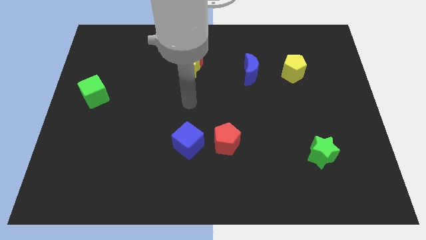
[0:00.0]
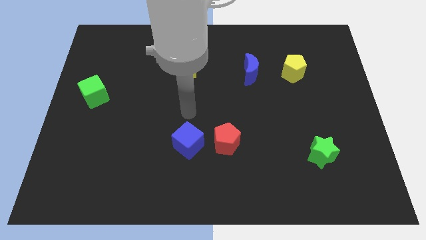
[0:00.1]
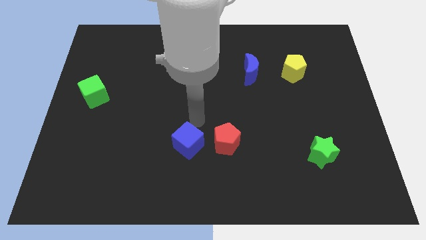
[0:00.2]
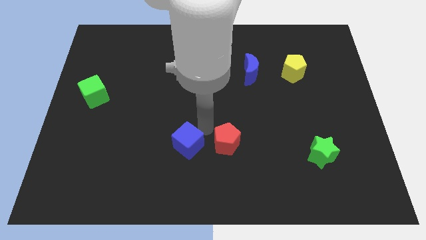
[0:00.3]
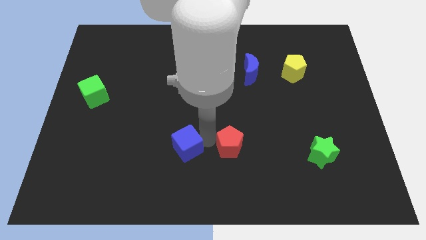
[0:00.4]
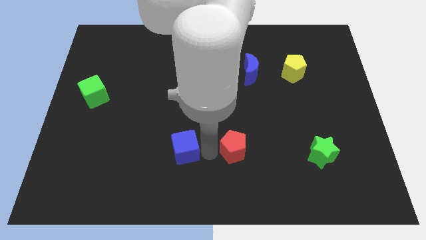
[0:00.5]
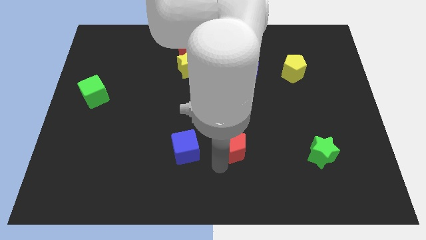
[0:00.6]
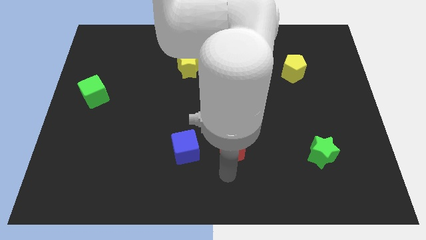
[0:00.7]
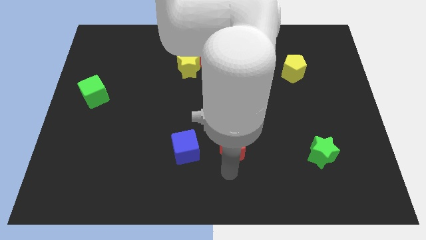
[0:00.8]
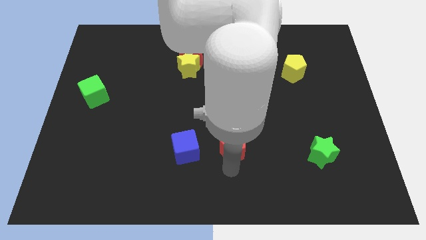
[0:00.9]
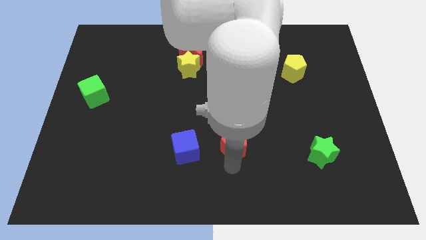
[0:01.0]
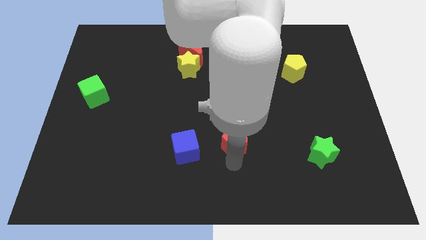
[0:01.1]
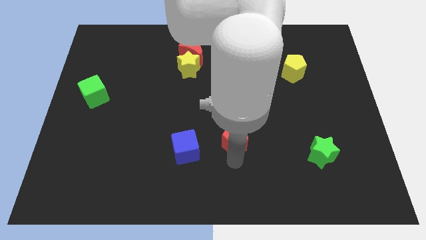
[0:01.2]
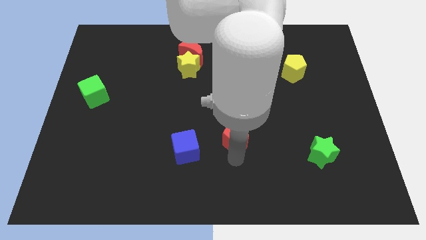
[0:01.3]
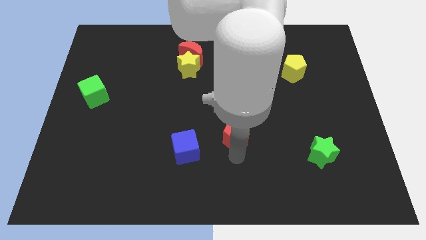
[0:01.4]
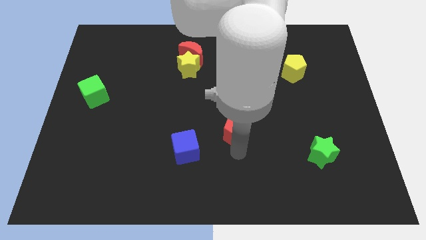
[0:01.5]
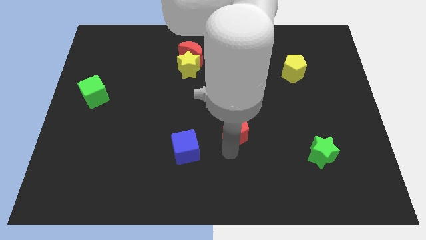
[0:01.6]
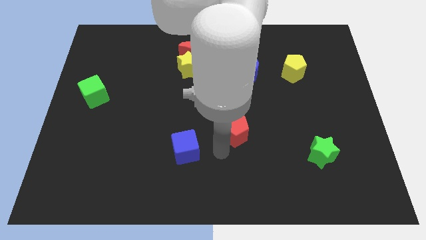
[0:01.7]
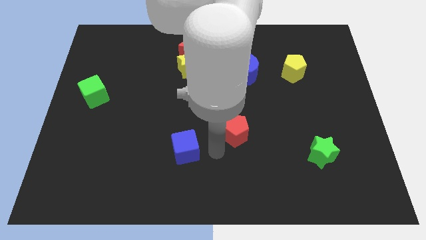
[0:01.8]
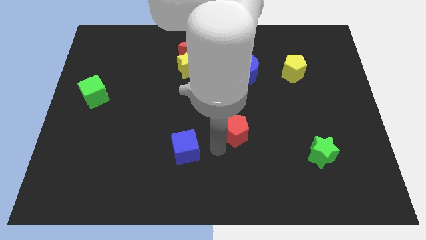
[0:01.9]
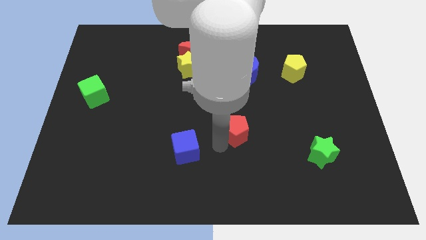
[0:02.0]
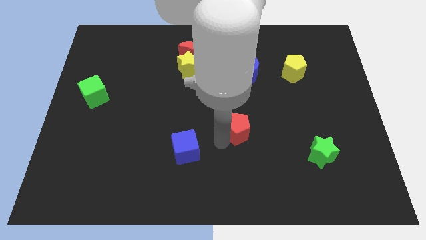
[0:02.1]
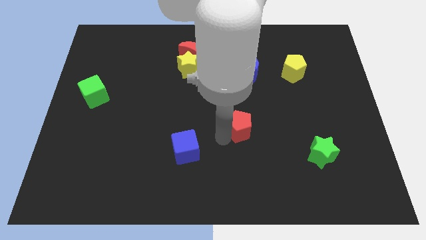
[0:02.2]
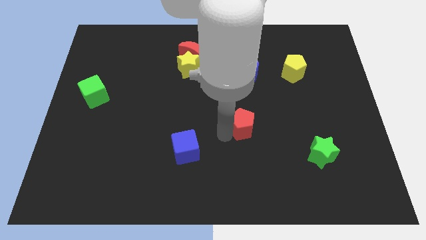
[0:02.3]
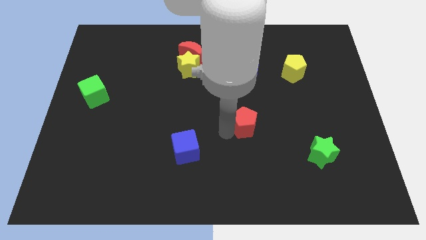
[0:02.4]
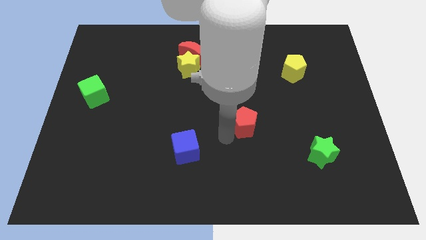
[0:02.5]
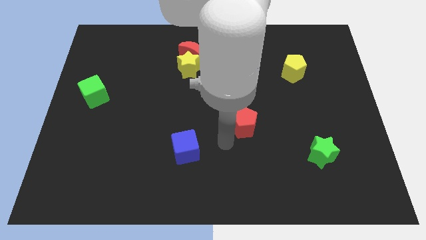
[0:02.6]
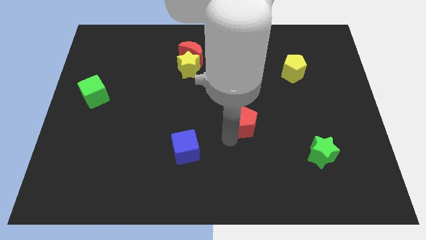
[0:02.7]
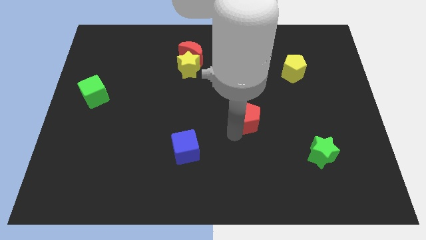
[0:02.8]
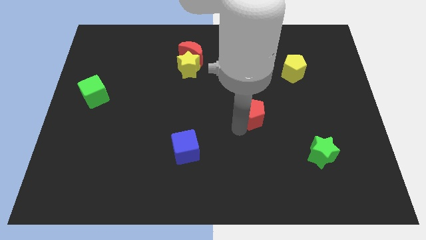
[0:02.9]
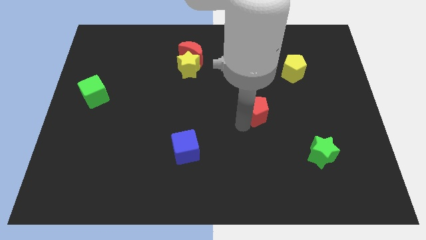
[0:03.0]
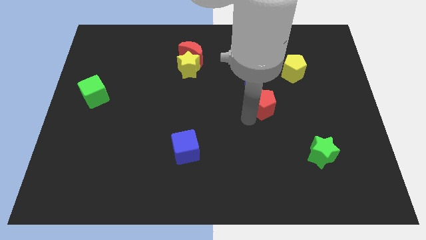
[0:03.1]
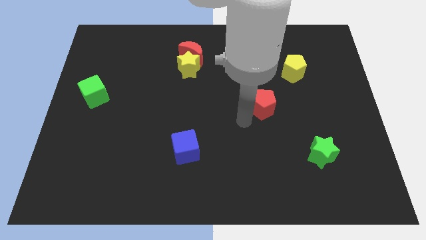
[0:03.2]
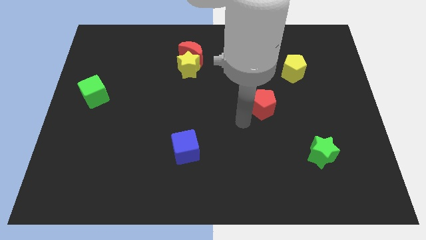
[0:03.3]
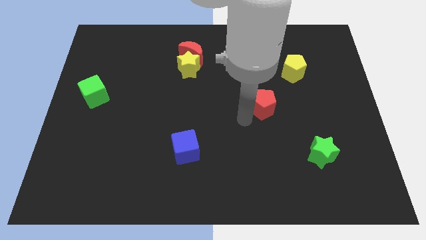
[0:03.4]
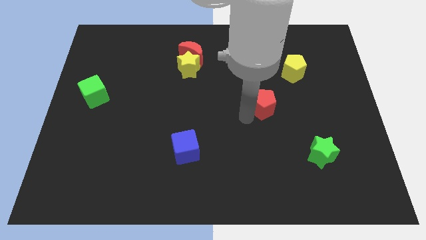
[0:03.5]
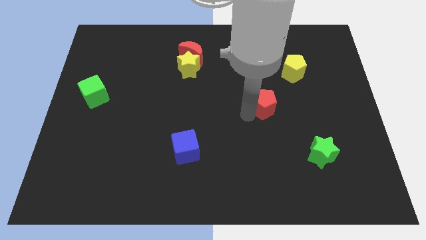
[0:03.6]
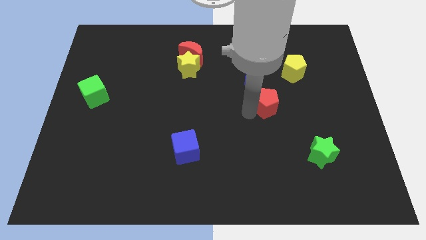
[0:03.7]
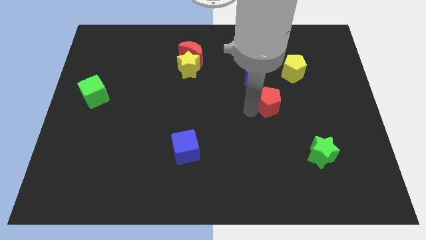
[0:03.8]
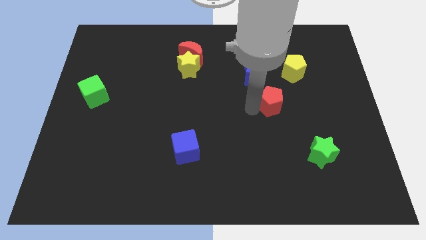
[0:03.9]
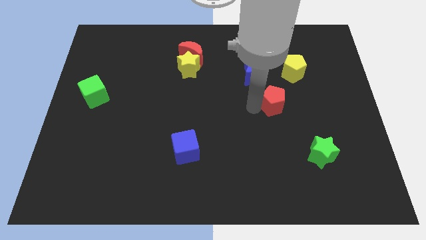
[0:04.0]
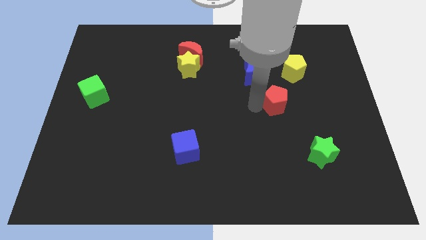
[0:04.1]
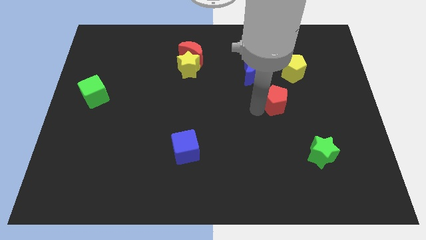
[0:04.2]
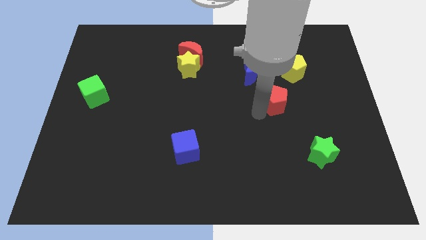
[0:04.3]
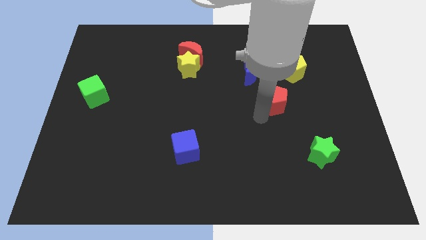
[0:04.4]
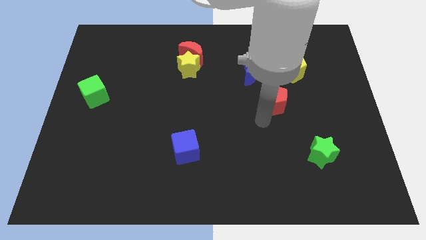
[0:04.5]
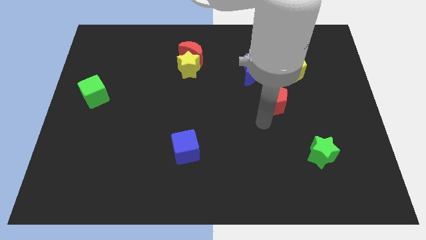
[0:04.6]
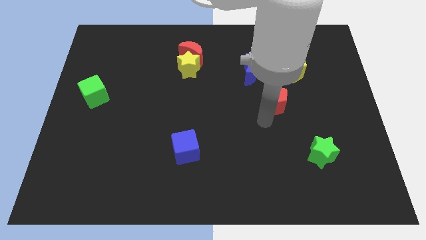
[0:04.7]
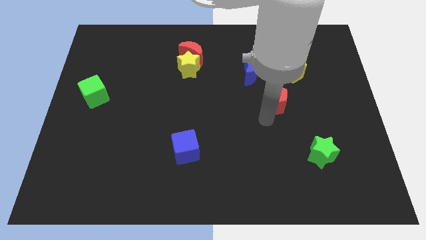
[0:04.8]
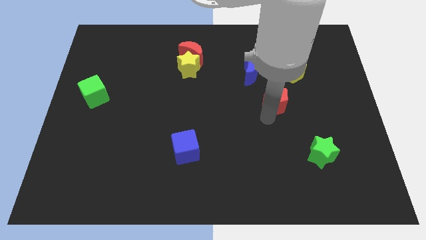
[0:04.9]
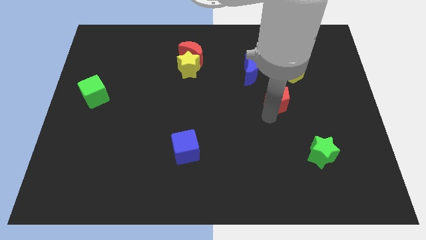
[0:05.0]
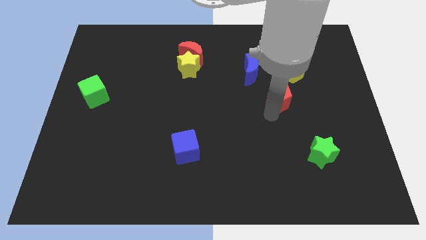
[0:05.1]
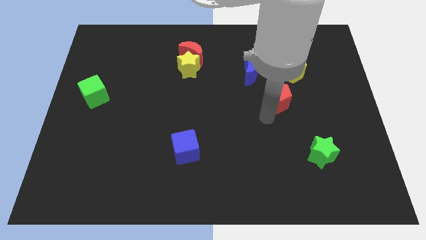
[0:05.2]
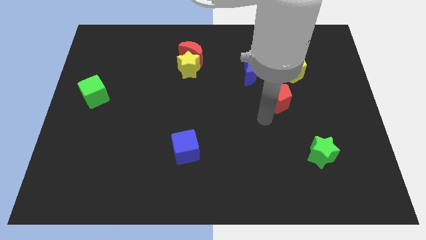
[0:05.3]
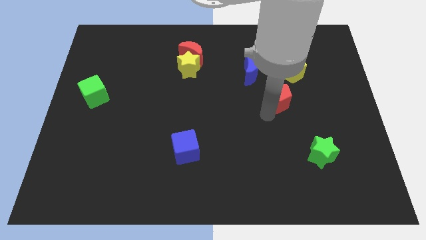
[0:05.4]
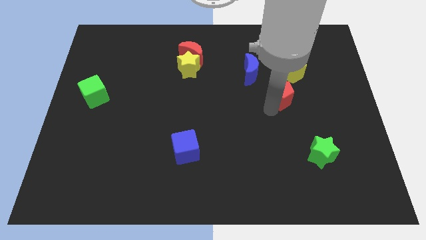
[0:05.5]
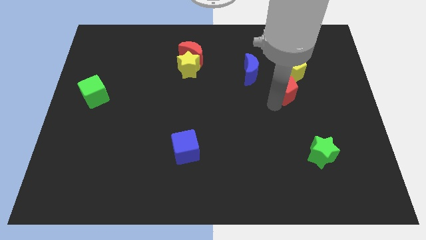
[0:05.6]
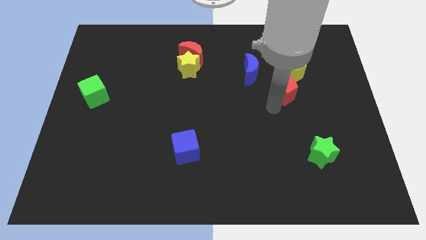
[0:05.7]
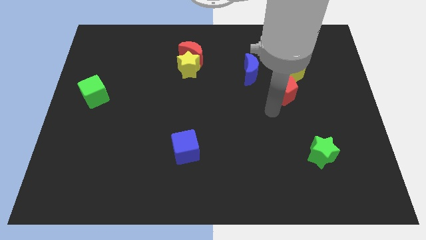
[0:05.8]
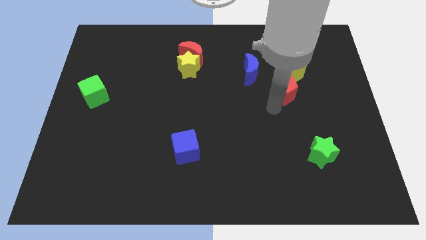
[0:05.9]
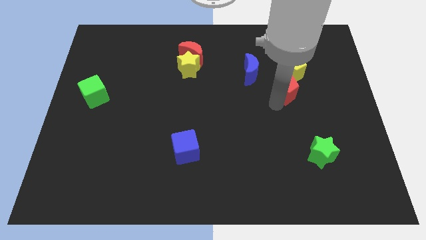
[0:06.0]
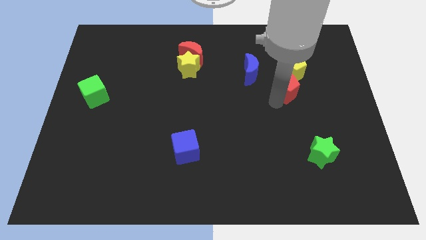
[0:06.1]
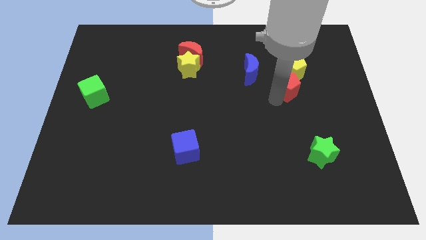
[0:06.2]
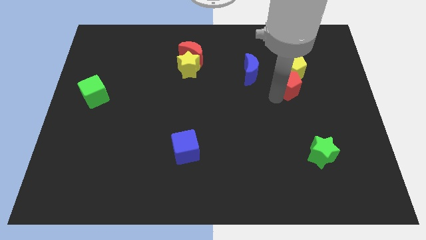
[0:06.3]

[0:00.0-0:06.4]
slide the red pentagon close to the yellow pentagon

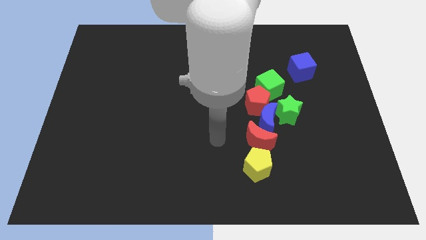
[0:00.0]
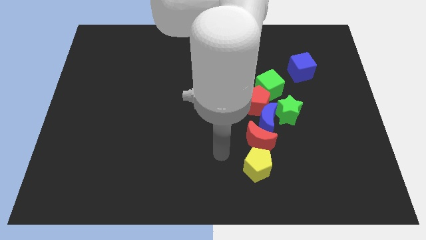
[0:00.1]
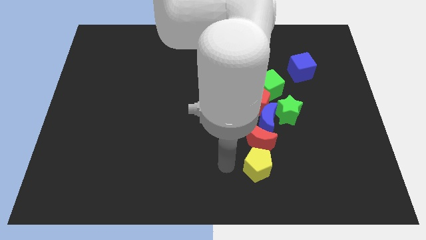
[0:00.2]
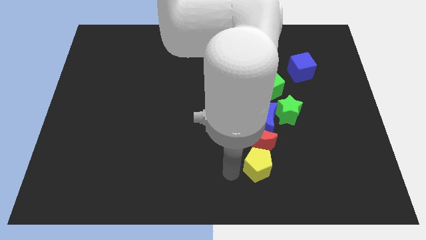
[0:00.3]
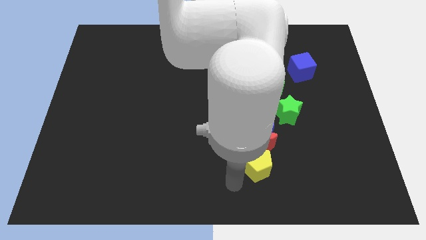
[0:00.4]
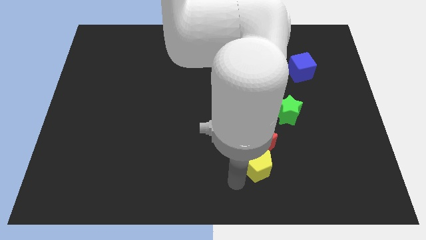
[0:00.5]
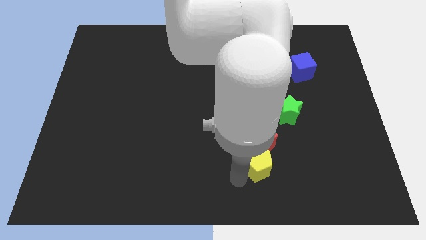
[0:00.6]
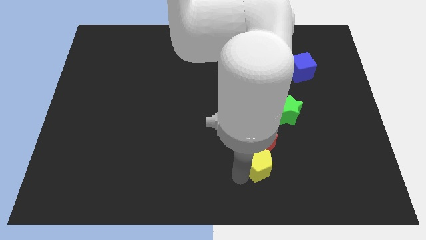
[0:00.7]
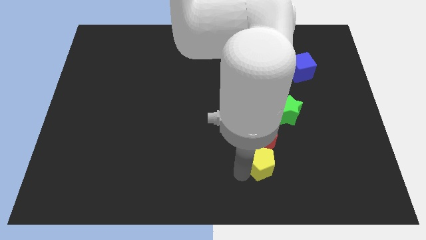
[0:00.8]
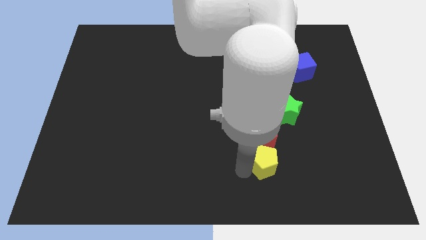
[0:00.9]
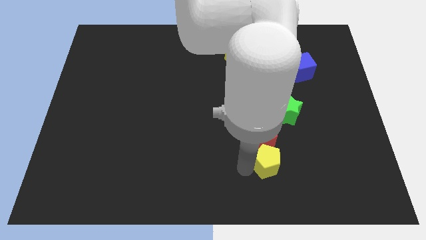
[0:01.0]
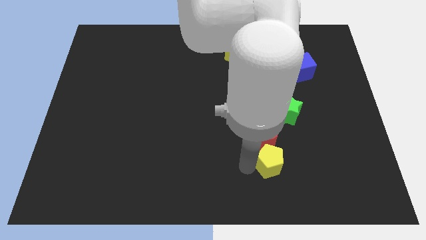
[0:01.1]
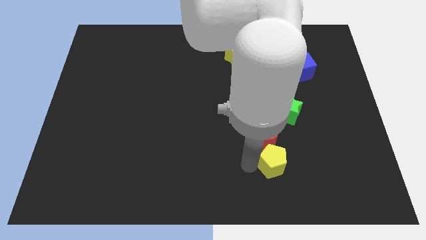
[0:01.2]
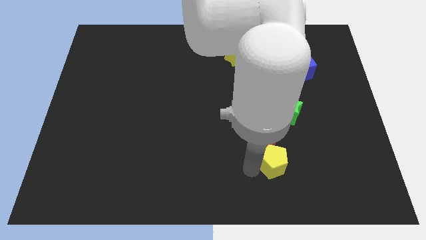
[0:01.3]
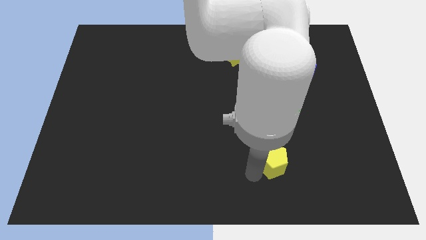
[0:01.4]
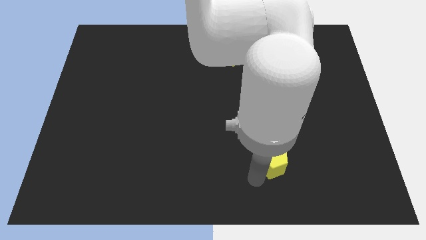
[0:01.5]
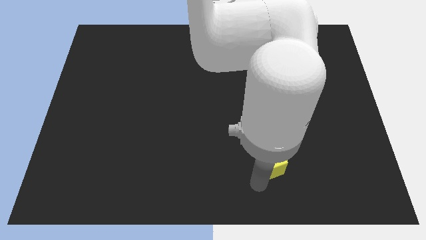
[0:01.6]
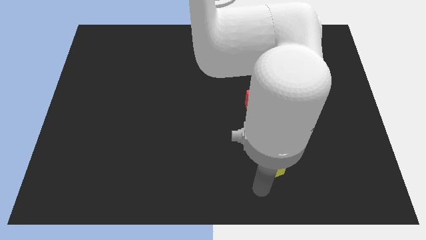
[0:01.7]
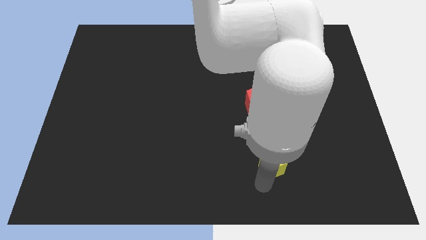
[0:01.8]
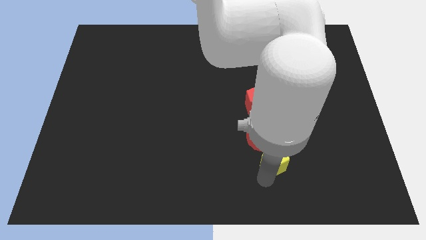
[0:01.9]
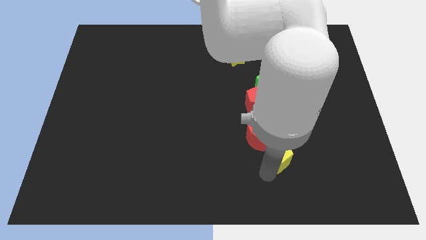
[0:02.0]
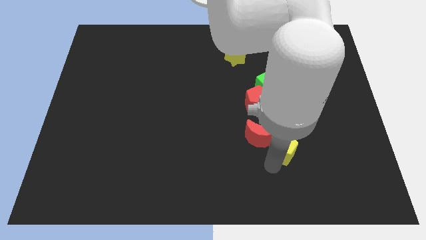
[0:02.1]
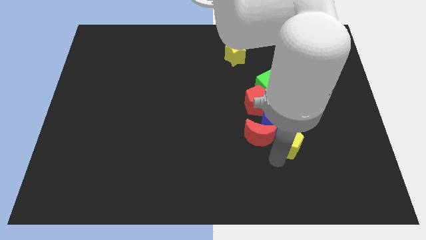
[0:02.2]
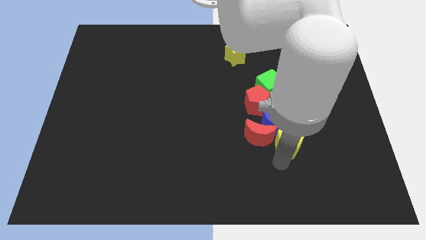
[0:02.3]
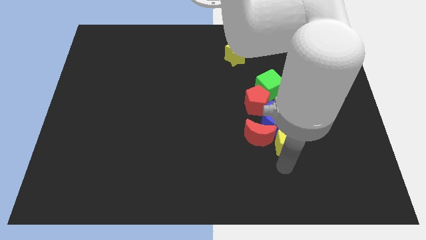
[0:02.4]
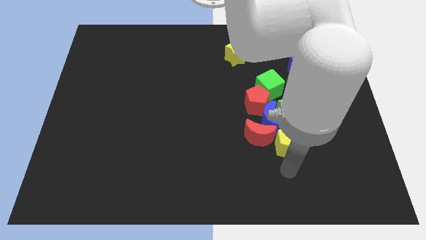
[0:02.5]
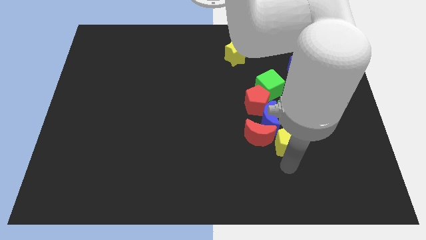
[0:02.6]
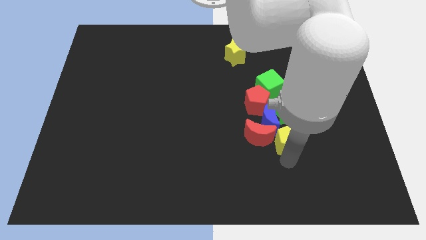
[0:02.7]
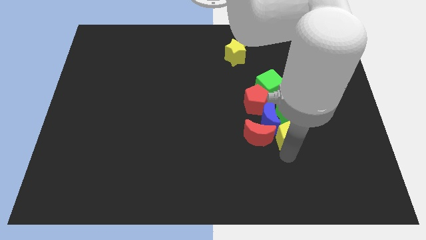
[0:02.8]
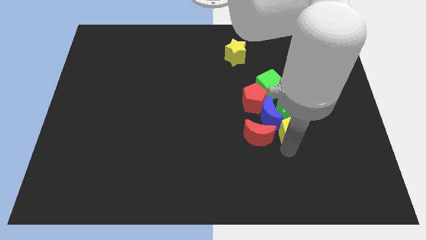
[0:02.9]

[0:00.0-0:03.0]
push the yellow pentagon to the green star
